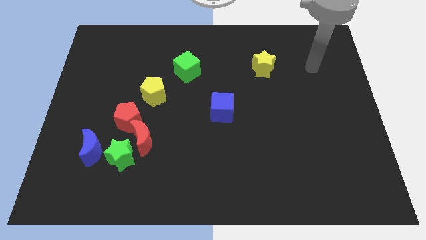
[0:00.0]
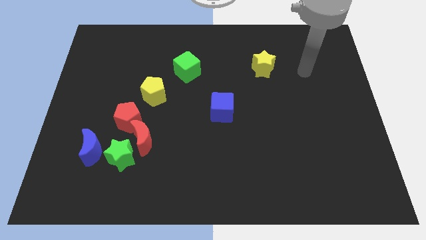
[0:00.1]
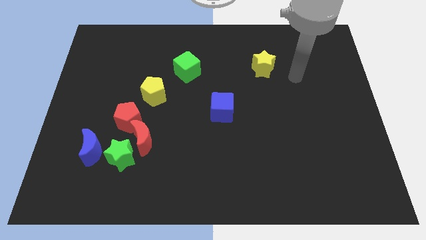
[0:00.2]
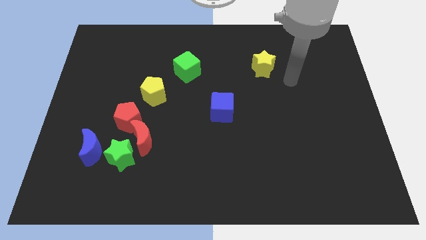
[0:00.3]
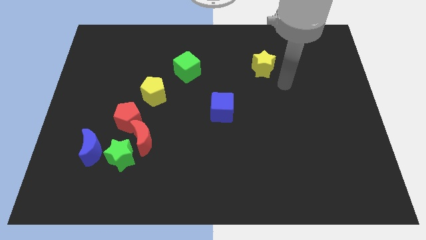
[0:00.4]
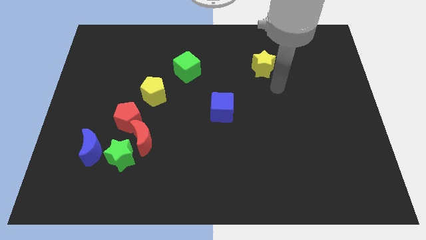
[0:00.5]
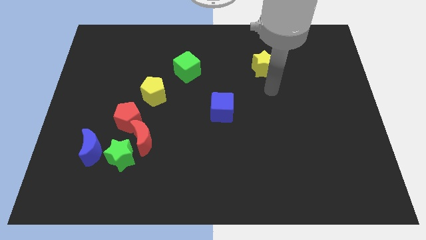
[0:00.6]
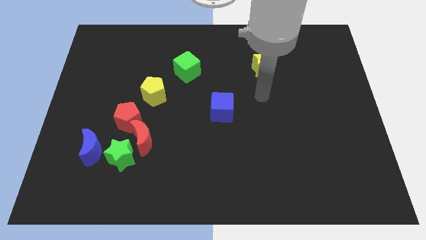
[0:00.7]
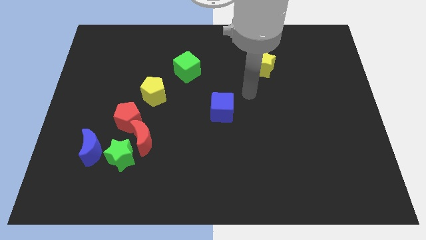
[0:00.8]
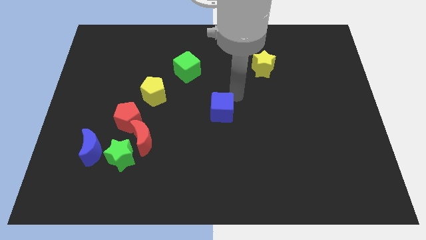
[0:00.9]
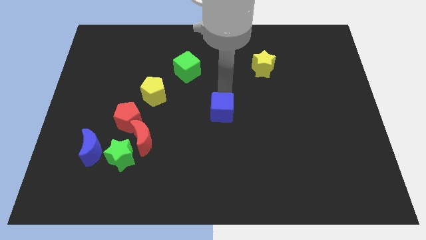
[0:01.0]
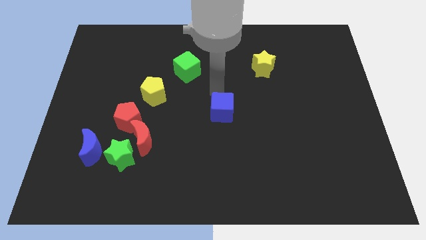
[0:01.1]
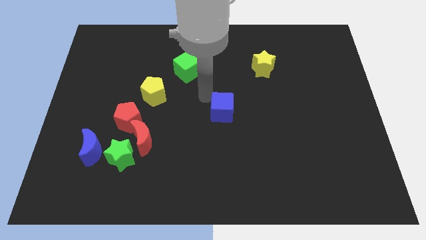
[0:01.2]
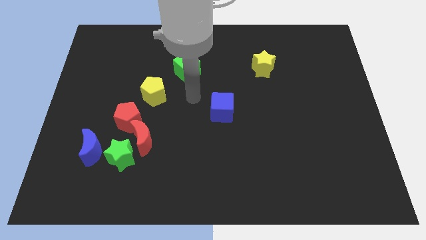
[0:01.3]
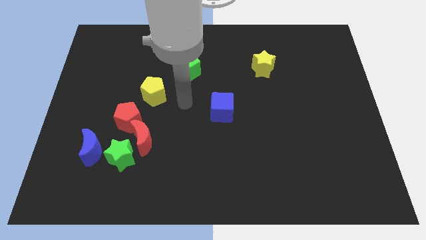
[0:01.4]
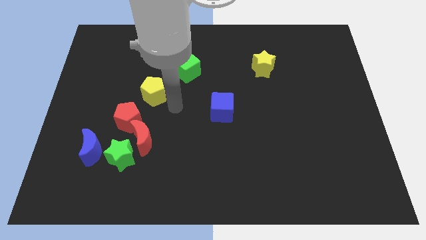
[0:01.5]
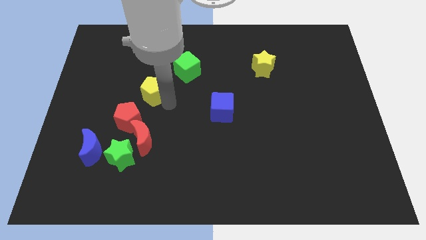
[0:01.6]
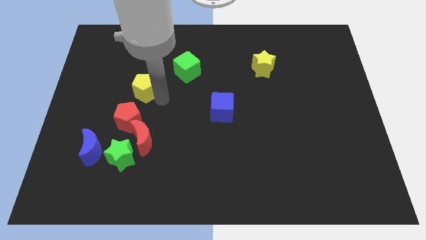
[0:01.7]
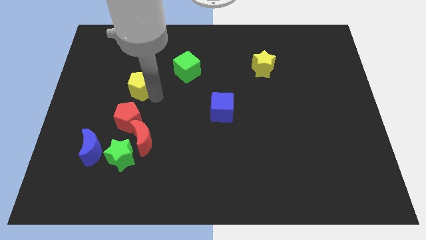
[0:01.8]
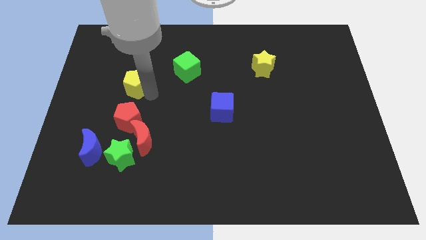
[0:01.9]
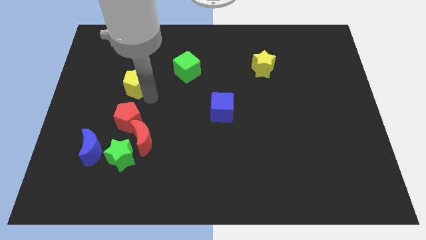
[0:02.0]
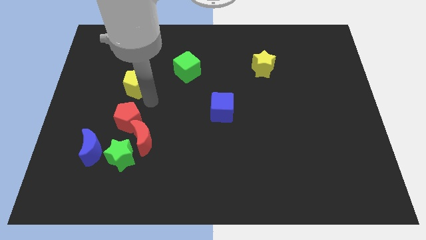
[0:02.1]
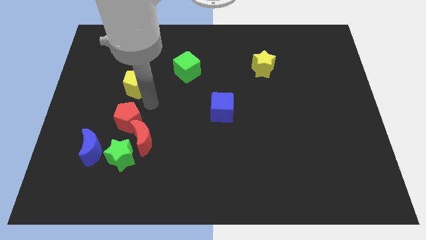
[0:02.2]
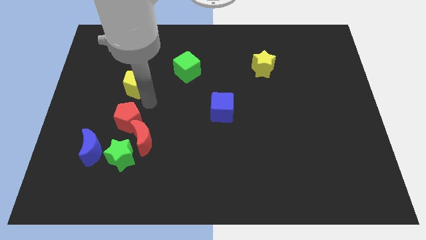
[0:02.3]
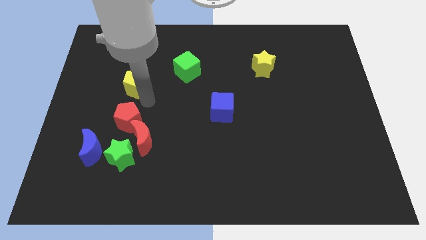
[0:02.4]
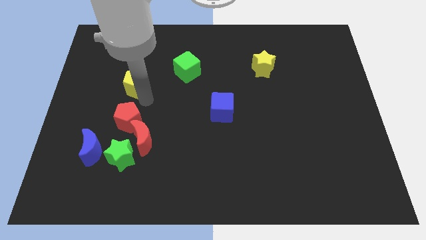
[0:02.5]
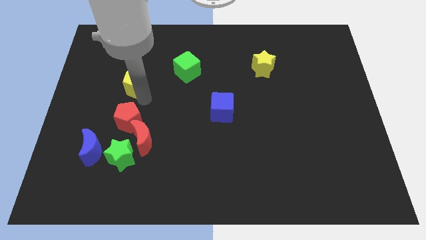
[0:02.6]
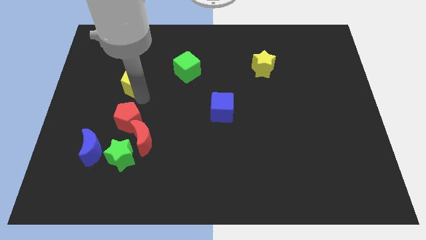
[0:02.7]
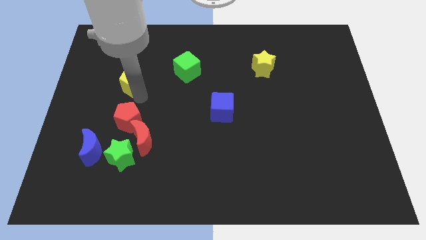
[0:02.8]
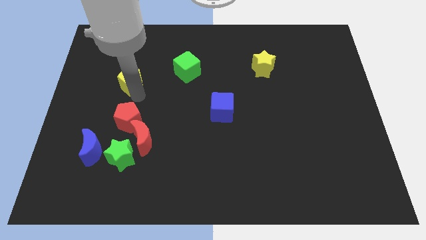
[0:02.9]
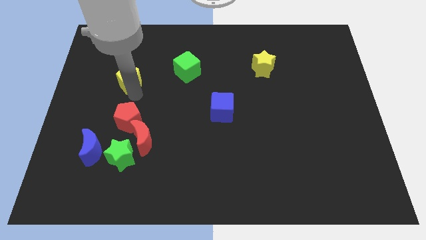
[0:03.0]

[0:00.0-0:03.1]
push the yellow pentagon a little bit up and to the left

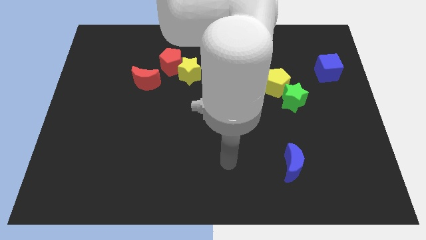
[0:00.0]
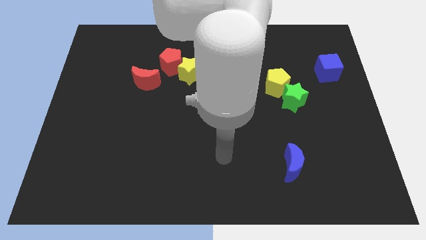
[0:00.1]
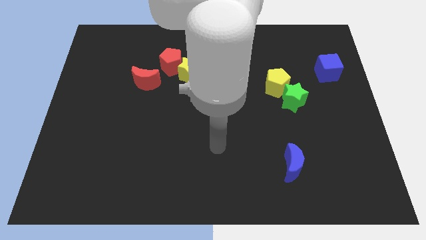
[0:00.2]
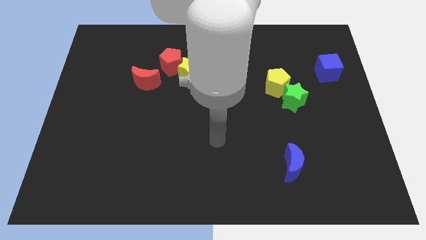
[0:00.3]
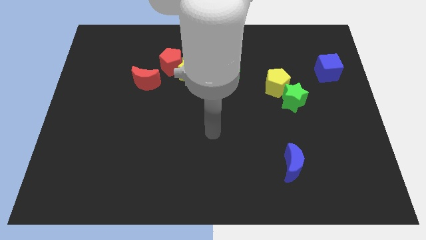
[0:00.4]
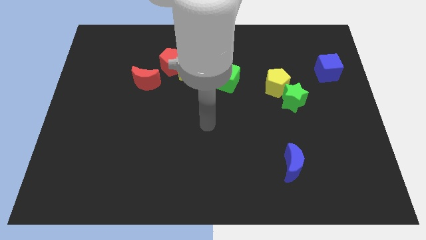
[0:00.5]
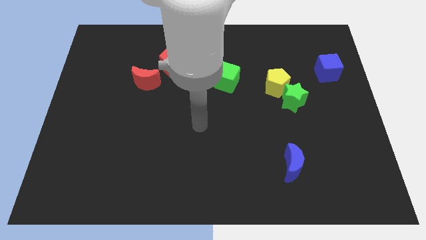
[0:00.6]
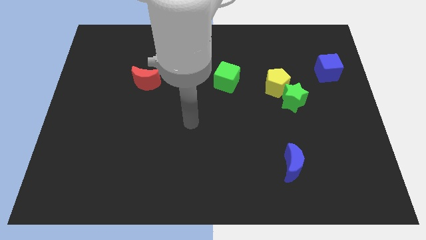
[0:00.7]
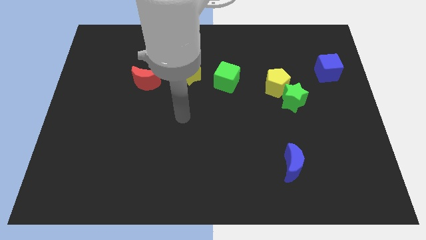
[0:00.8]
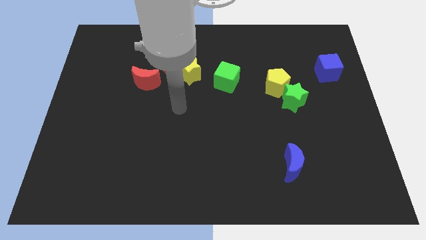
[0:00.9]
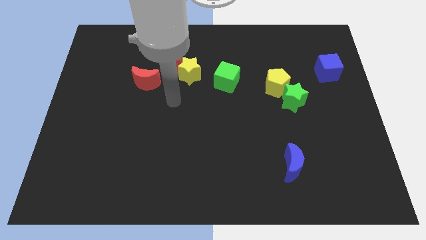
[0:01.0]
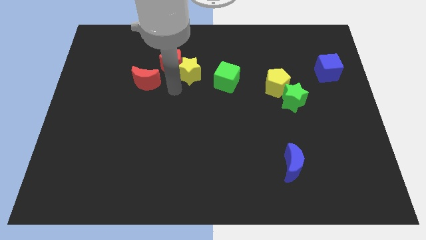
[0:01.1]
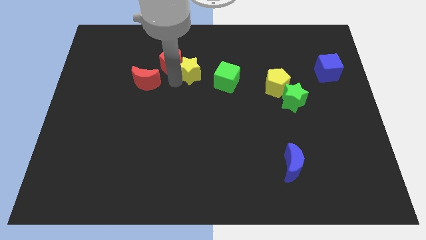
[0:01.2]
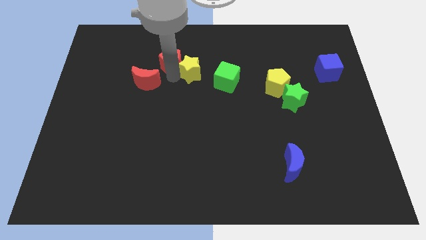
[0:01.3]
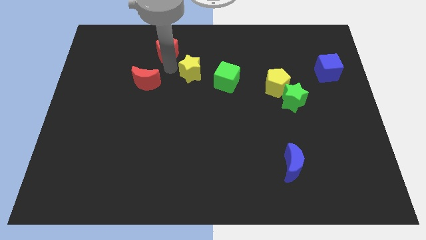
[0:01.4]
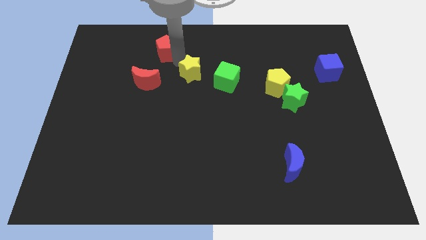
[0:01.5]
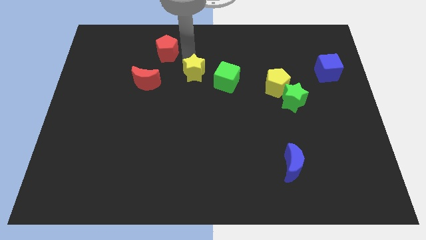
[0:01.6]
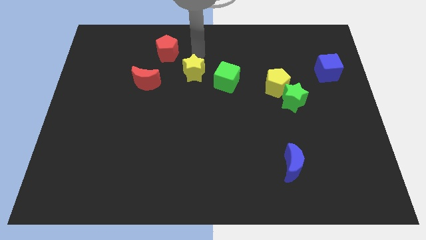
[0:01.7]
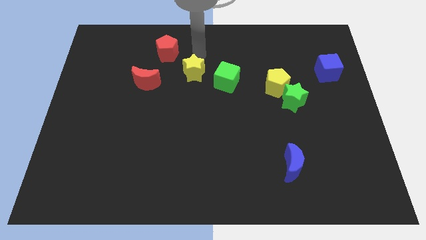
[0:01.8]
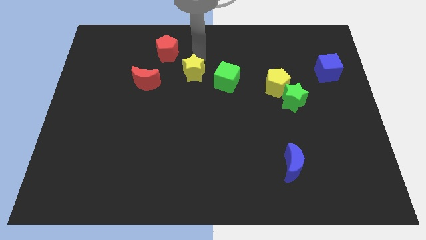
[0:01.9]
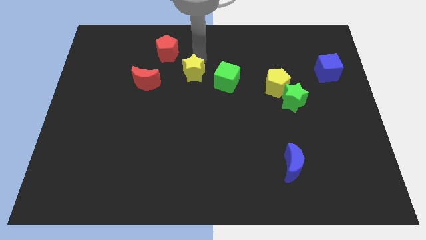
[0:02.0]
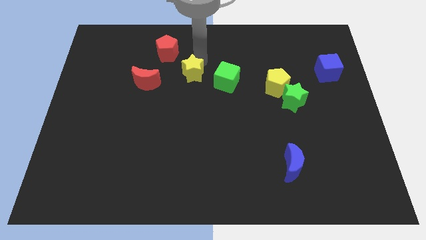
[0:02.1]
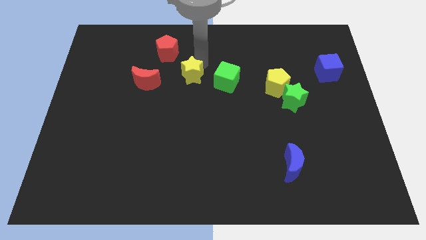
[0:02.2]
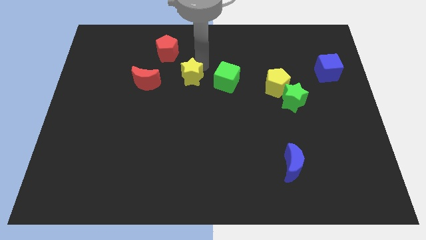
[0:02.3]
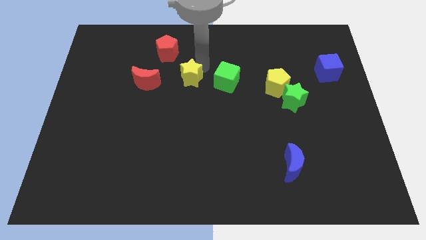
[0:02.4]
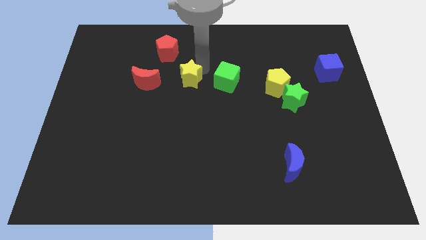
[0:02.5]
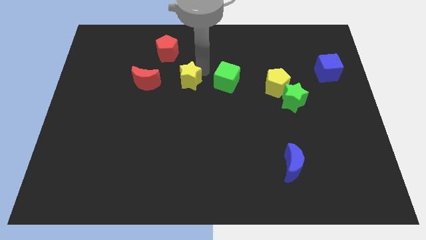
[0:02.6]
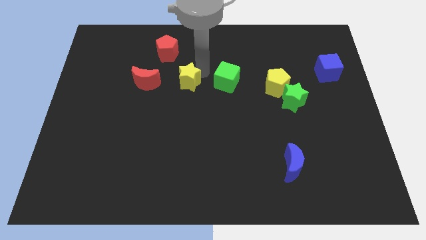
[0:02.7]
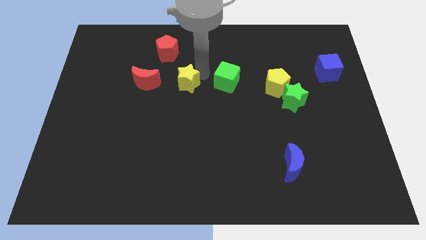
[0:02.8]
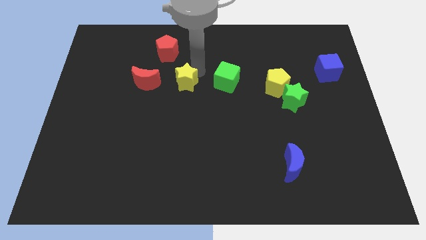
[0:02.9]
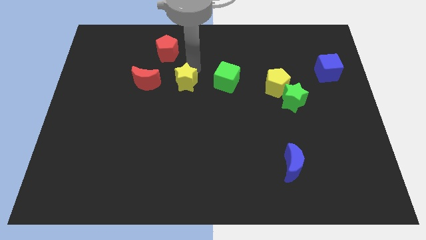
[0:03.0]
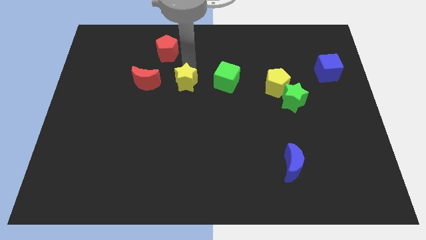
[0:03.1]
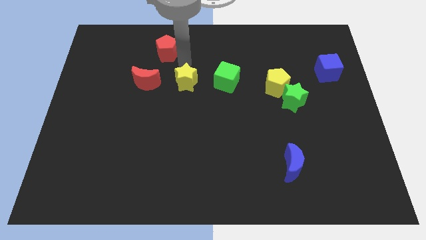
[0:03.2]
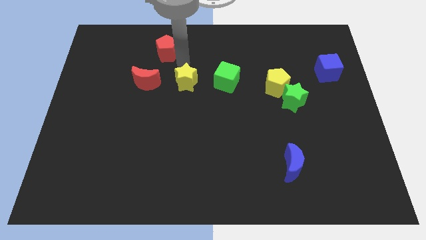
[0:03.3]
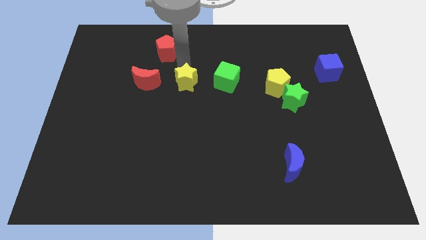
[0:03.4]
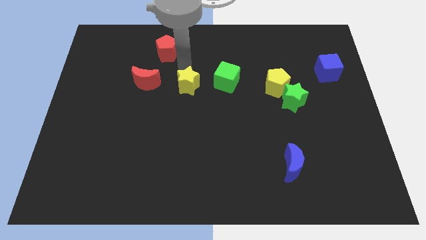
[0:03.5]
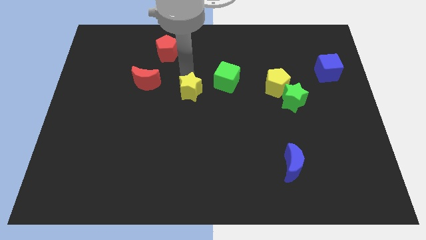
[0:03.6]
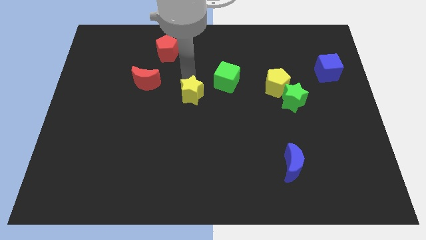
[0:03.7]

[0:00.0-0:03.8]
slide the yellow star a bit downwards

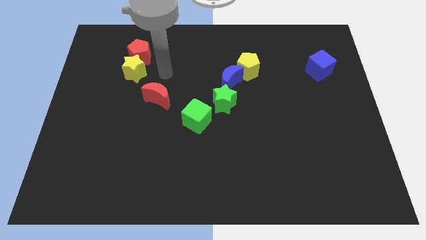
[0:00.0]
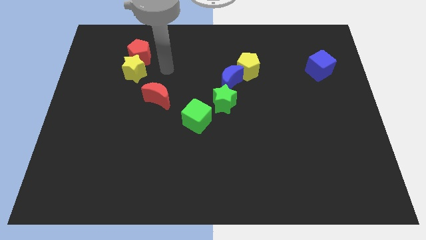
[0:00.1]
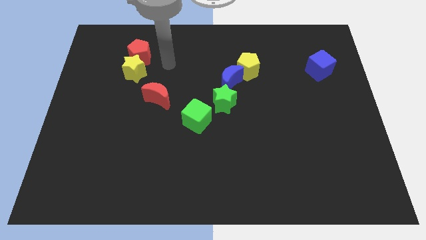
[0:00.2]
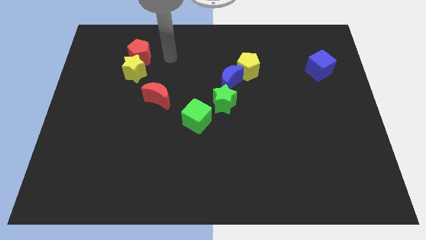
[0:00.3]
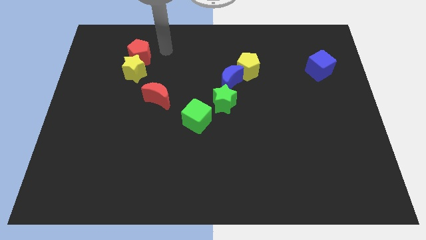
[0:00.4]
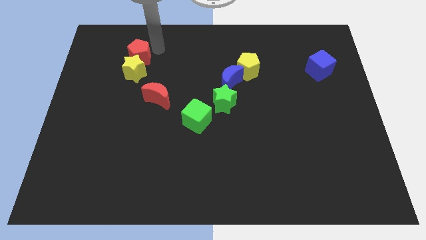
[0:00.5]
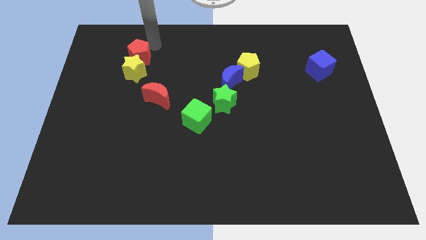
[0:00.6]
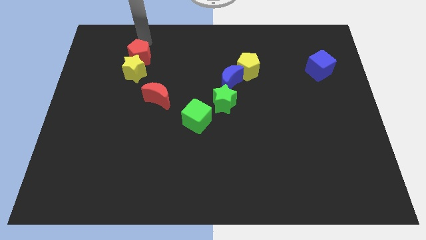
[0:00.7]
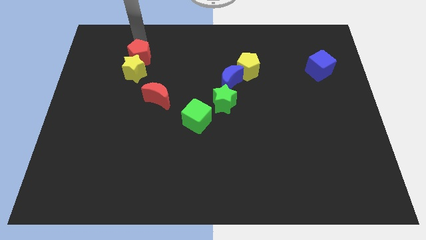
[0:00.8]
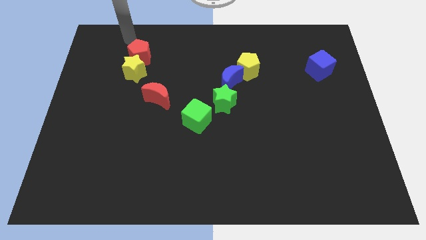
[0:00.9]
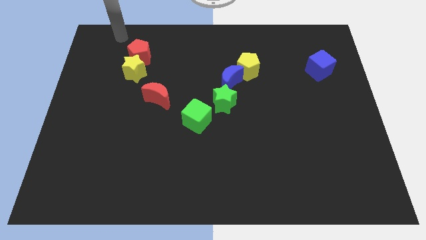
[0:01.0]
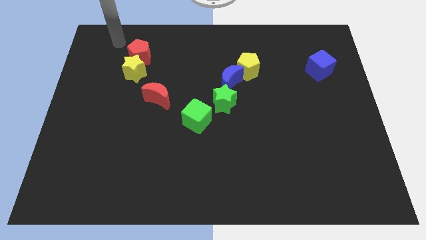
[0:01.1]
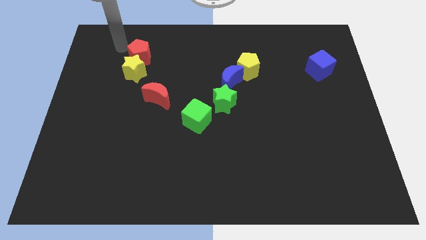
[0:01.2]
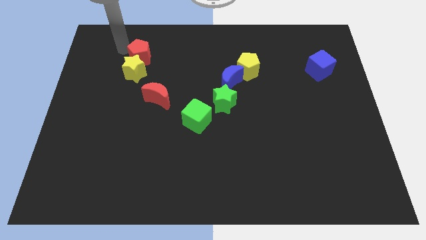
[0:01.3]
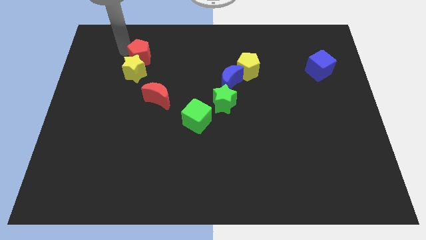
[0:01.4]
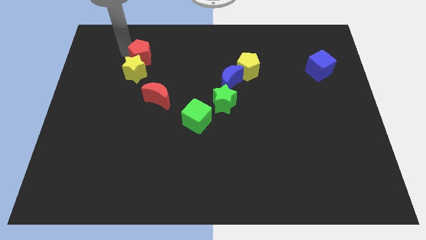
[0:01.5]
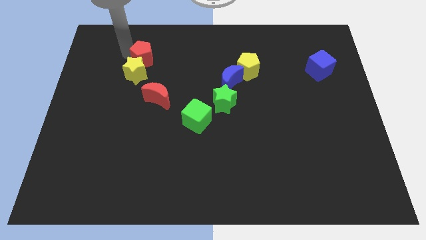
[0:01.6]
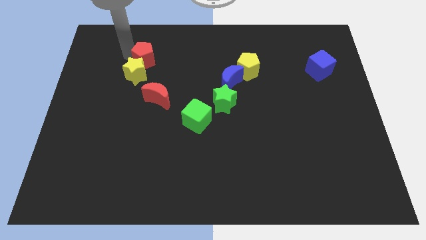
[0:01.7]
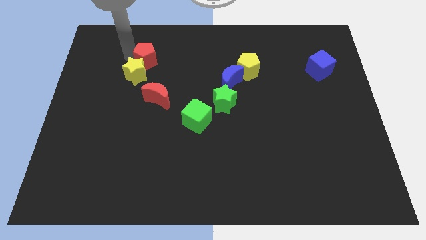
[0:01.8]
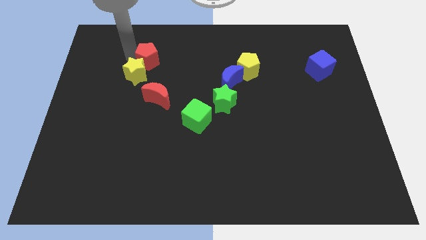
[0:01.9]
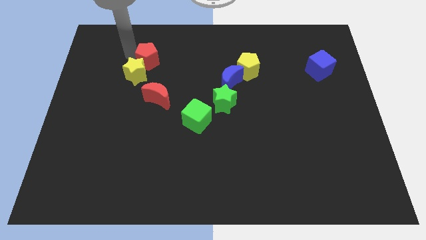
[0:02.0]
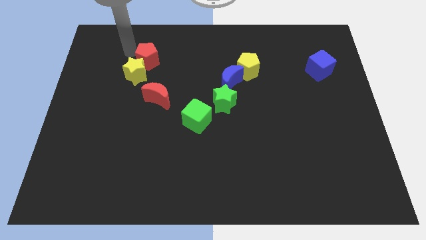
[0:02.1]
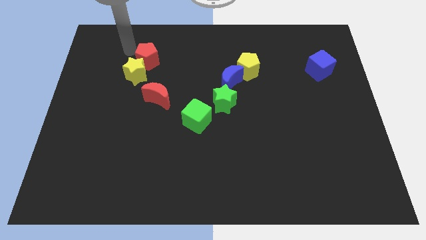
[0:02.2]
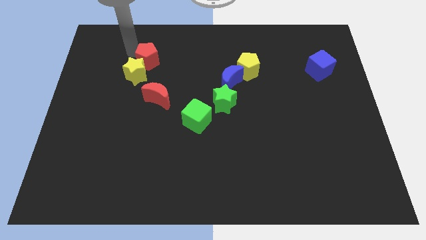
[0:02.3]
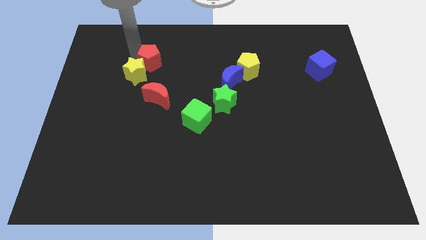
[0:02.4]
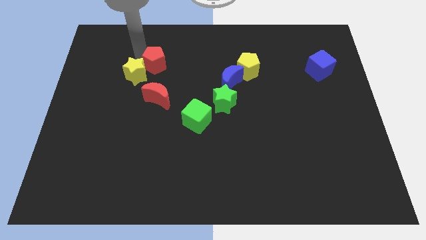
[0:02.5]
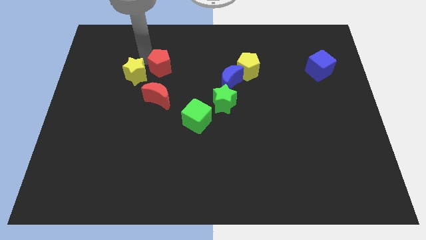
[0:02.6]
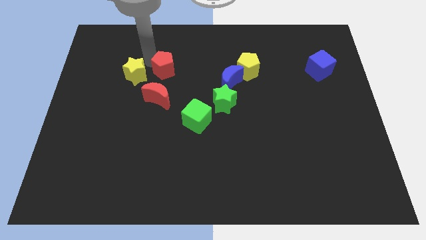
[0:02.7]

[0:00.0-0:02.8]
slide the red pentagon downwards and then to the right slightly
